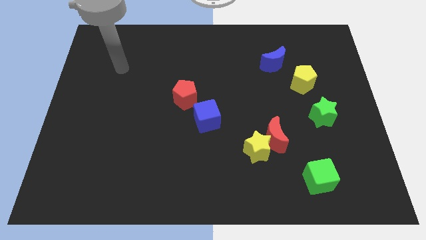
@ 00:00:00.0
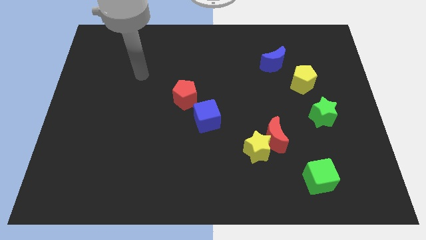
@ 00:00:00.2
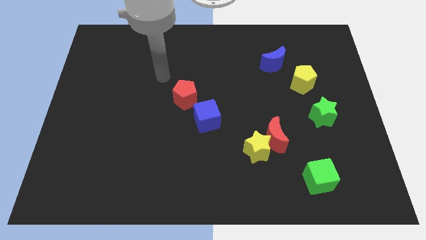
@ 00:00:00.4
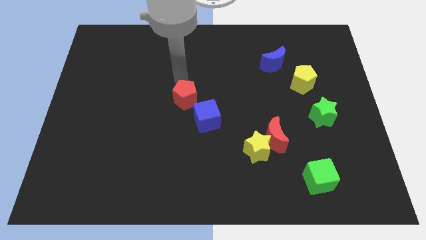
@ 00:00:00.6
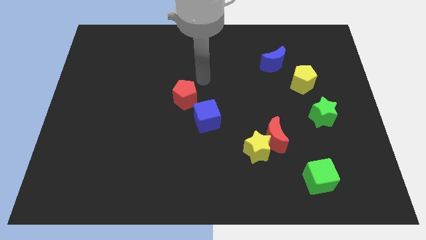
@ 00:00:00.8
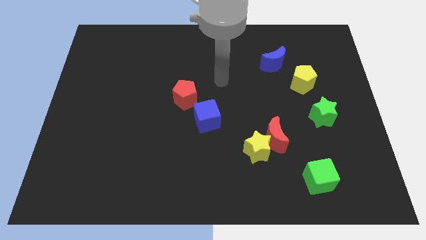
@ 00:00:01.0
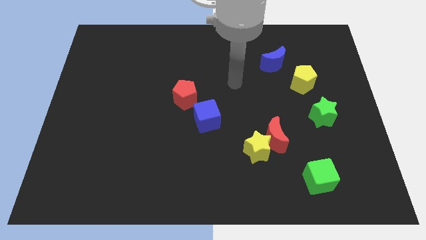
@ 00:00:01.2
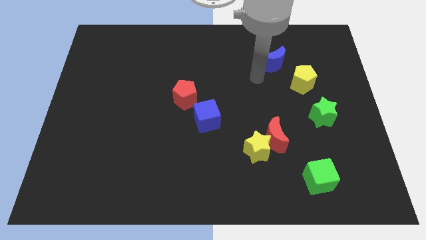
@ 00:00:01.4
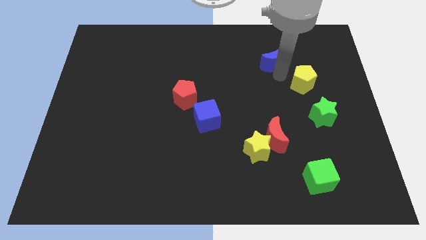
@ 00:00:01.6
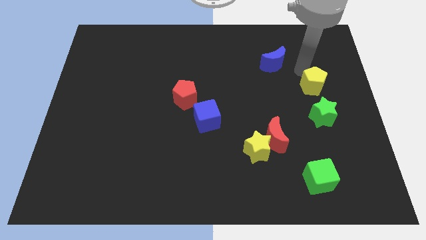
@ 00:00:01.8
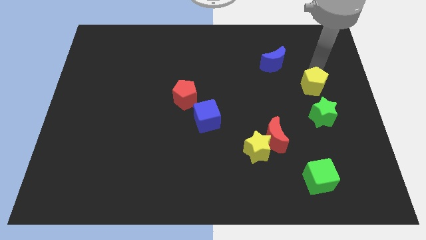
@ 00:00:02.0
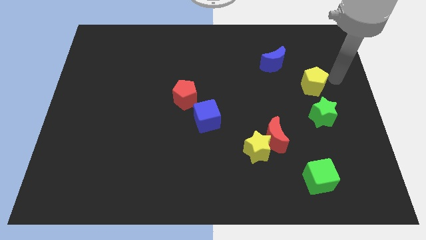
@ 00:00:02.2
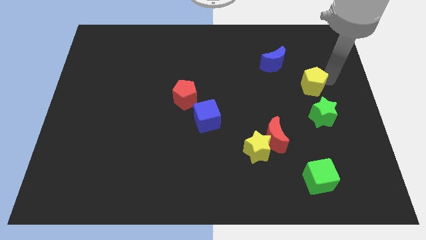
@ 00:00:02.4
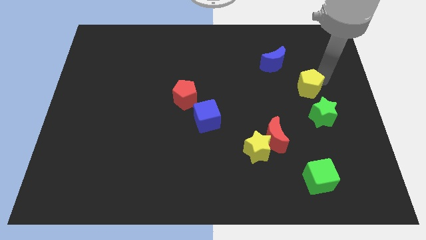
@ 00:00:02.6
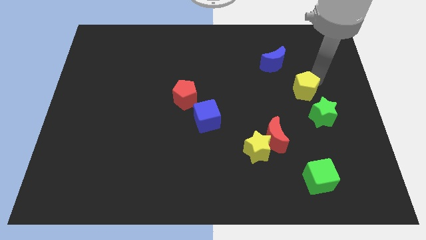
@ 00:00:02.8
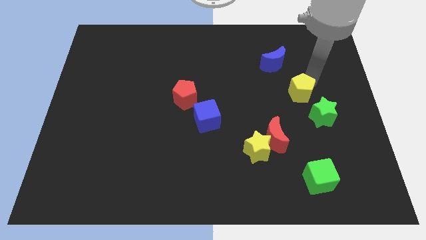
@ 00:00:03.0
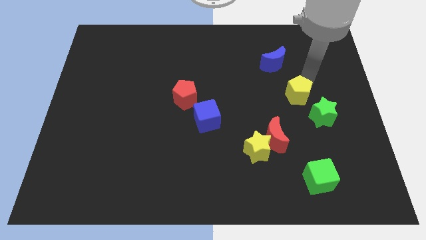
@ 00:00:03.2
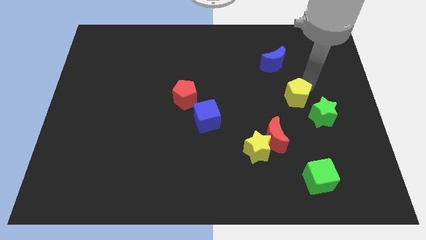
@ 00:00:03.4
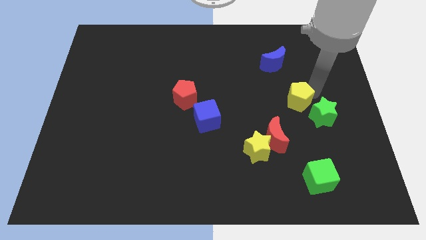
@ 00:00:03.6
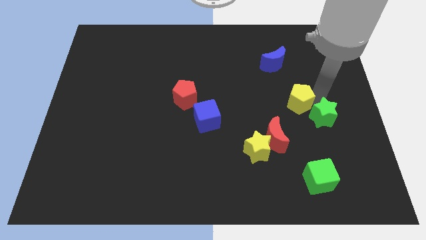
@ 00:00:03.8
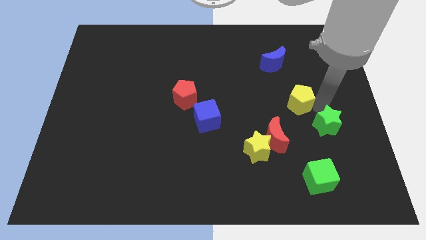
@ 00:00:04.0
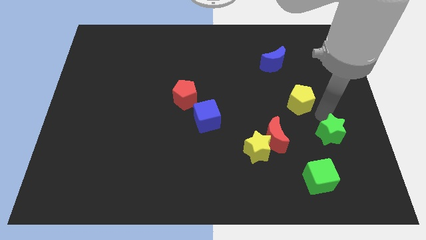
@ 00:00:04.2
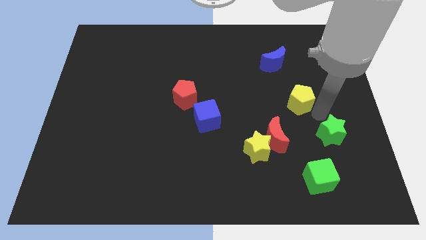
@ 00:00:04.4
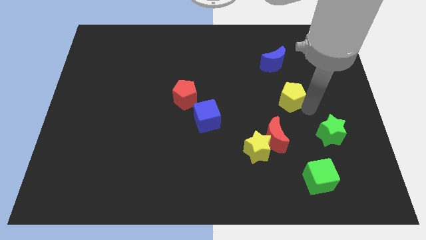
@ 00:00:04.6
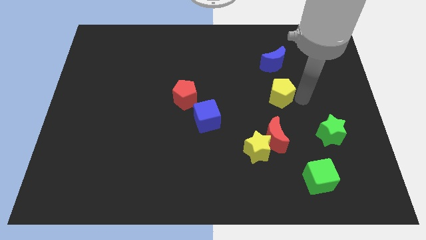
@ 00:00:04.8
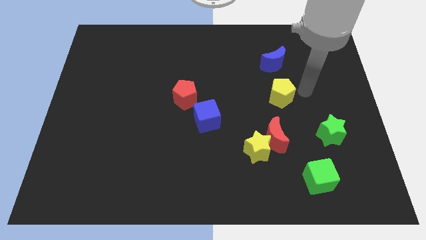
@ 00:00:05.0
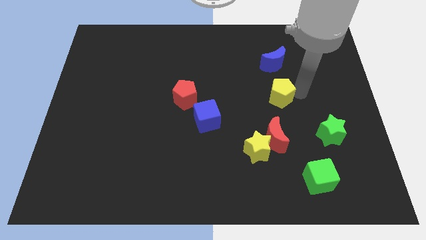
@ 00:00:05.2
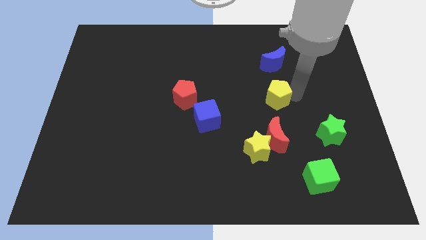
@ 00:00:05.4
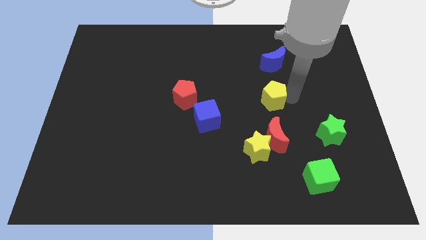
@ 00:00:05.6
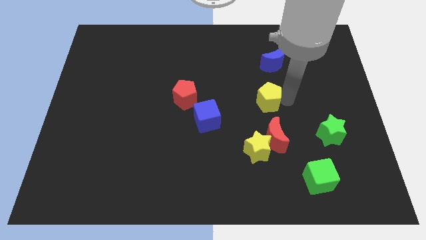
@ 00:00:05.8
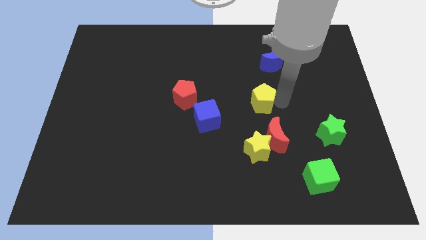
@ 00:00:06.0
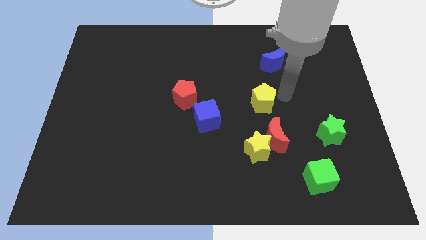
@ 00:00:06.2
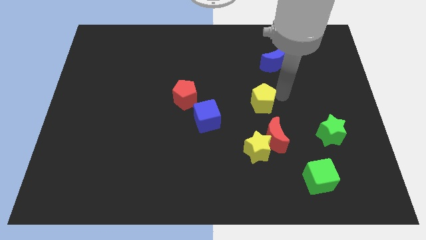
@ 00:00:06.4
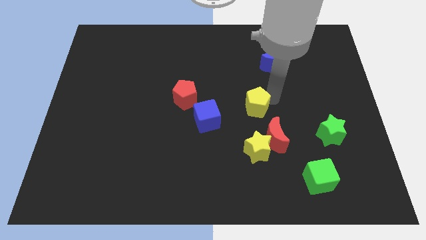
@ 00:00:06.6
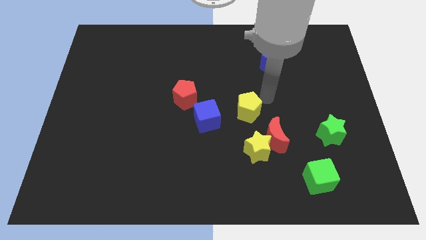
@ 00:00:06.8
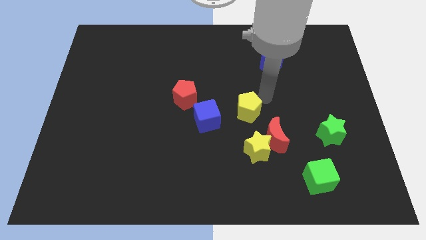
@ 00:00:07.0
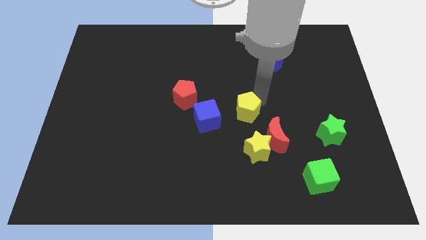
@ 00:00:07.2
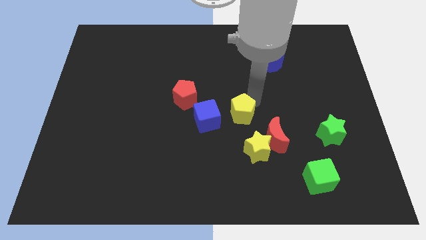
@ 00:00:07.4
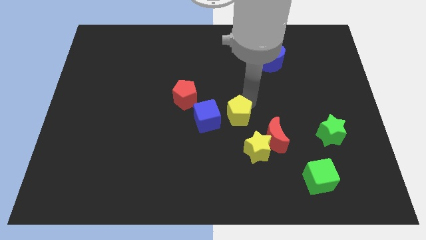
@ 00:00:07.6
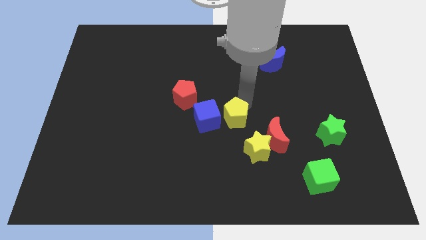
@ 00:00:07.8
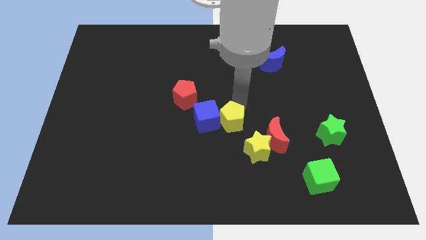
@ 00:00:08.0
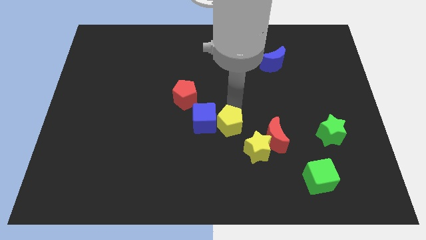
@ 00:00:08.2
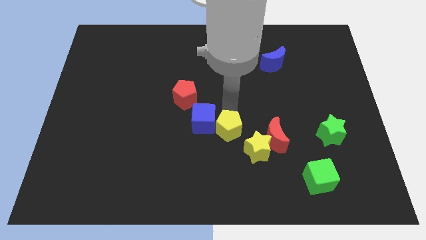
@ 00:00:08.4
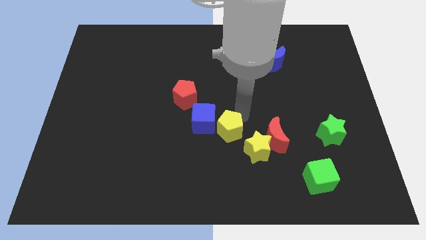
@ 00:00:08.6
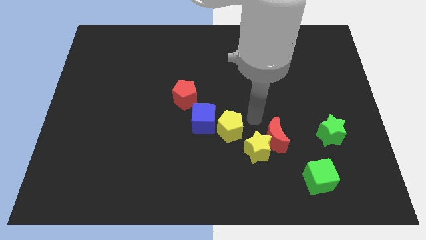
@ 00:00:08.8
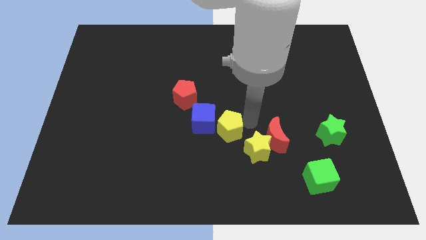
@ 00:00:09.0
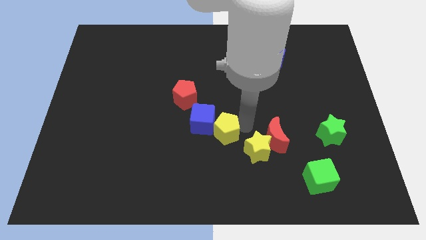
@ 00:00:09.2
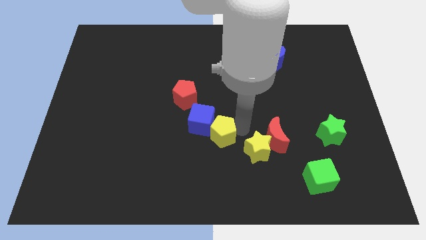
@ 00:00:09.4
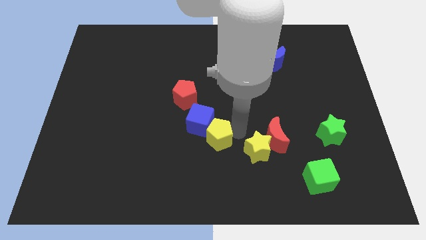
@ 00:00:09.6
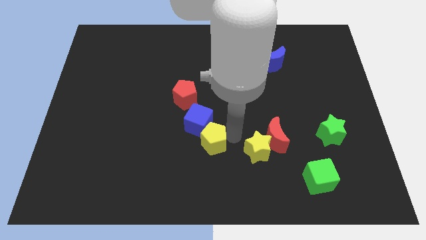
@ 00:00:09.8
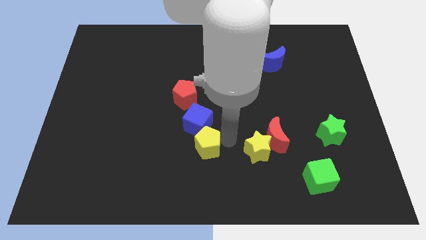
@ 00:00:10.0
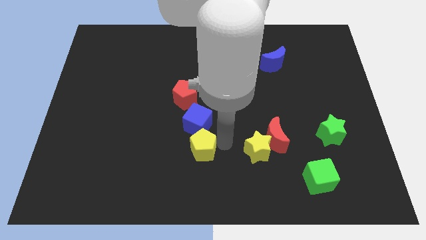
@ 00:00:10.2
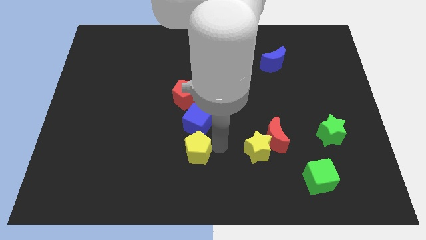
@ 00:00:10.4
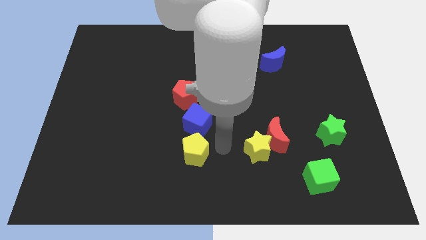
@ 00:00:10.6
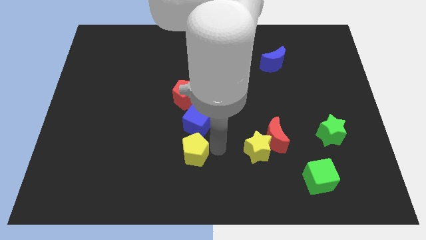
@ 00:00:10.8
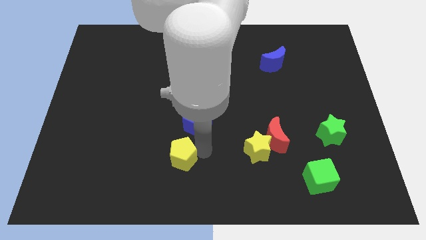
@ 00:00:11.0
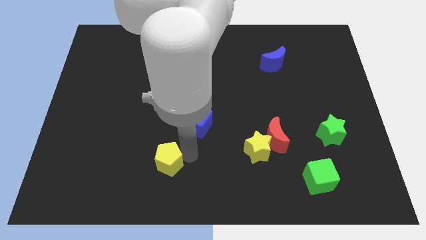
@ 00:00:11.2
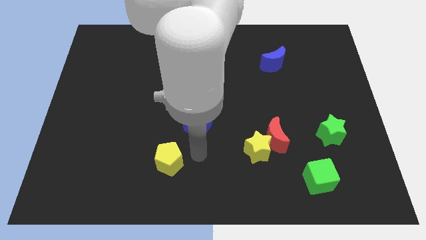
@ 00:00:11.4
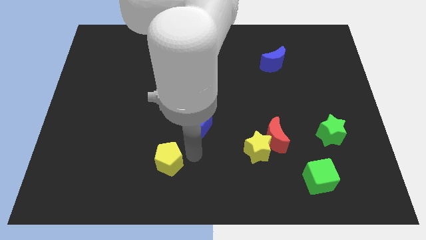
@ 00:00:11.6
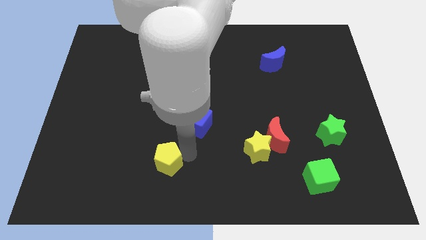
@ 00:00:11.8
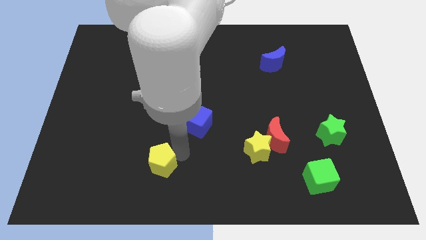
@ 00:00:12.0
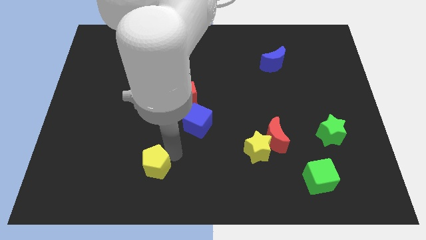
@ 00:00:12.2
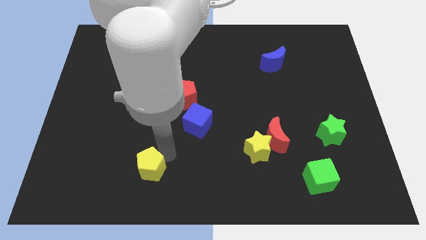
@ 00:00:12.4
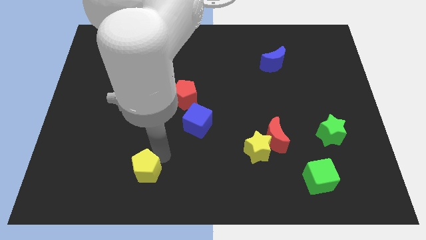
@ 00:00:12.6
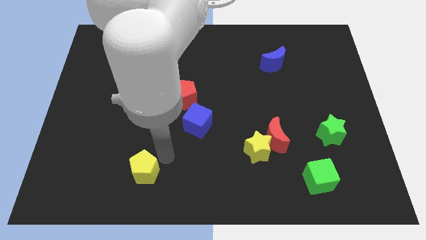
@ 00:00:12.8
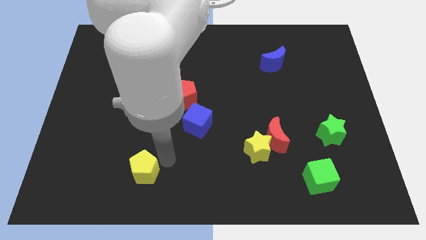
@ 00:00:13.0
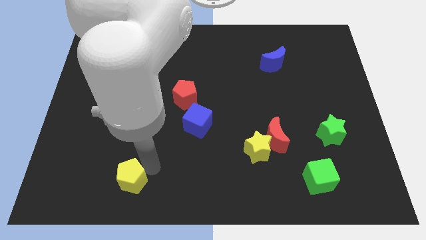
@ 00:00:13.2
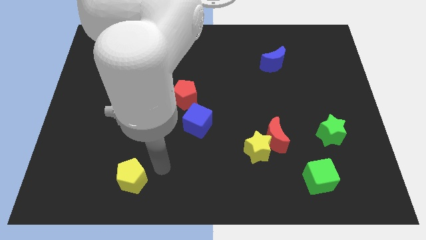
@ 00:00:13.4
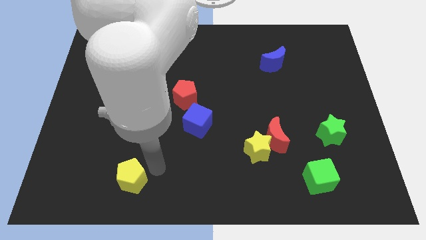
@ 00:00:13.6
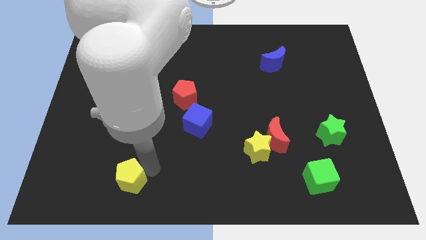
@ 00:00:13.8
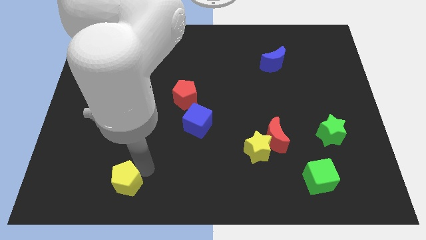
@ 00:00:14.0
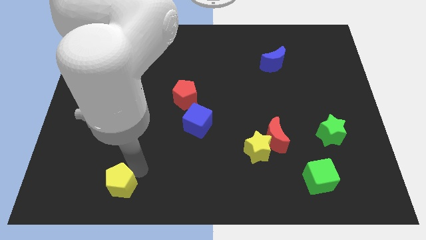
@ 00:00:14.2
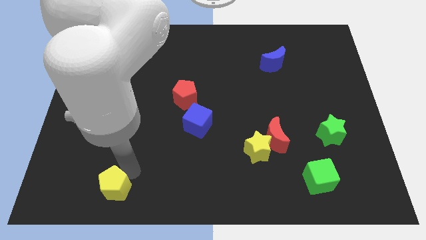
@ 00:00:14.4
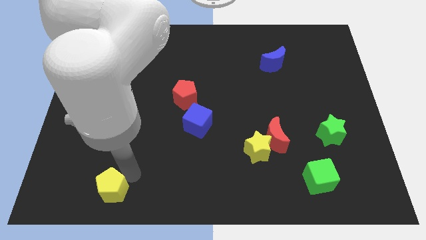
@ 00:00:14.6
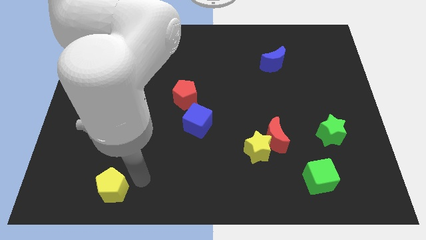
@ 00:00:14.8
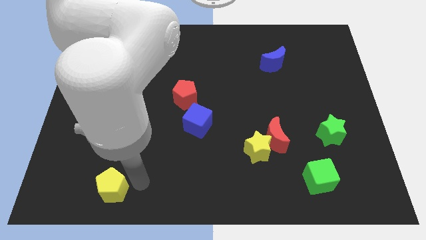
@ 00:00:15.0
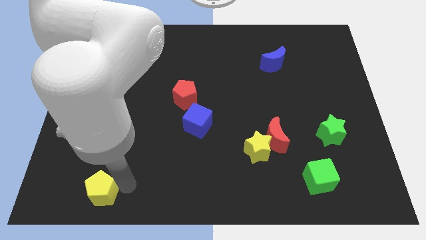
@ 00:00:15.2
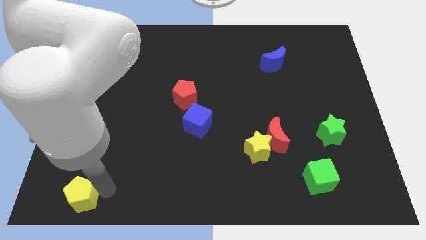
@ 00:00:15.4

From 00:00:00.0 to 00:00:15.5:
slide the yellow pentagon to the bottom left
